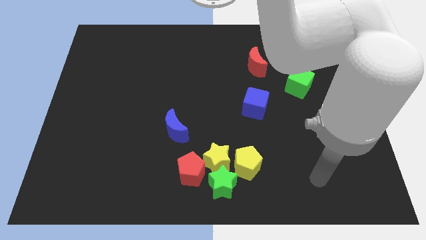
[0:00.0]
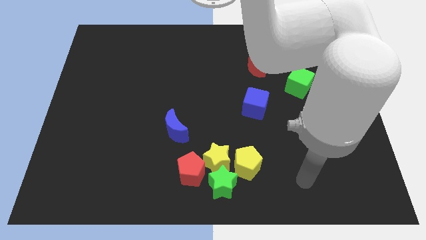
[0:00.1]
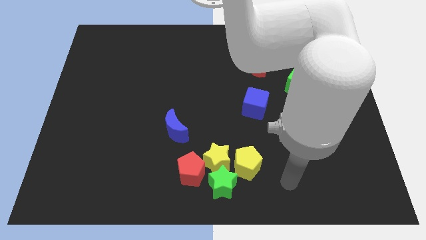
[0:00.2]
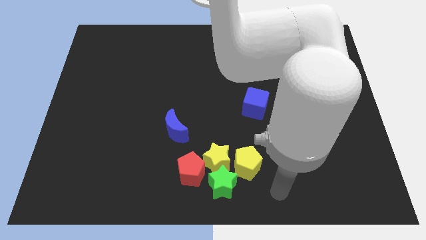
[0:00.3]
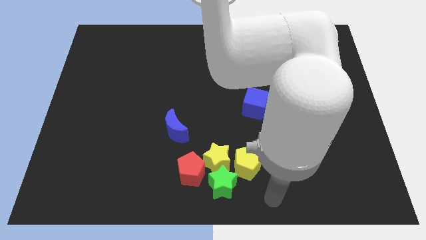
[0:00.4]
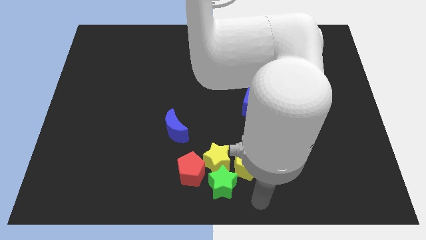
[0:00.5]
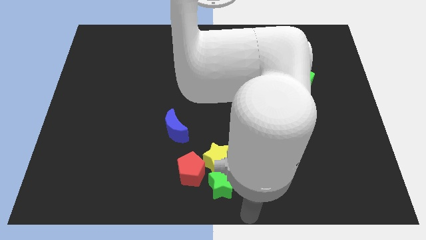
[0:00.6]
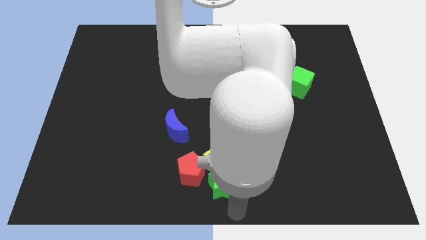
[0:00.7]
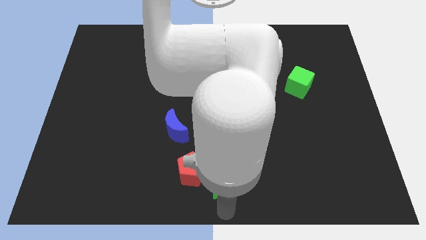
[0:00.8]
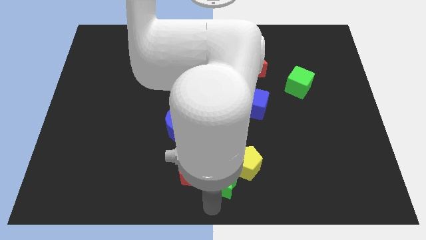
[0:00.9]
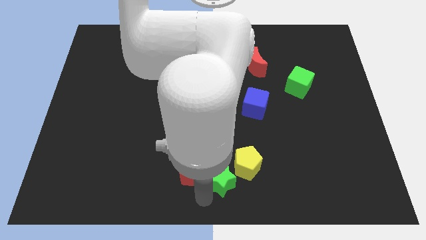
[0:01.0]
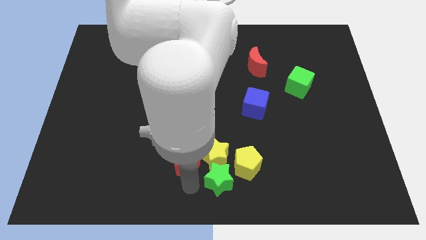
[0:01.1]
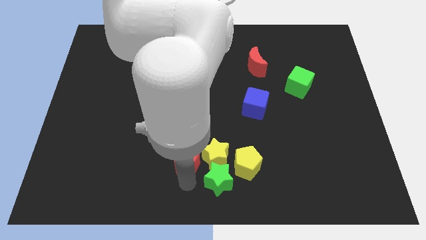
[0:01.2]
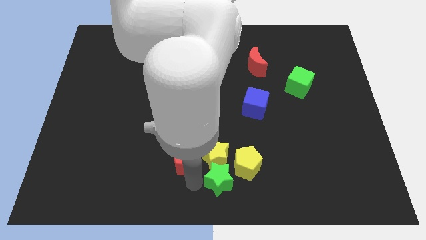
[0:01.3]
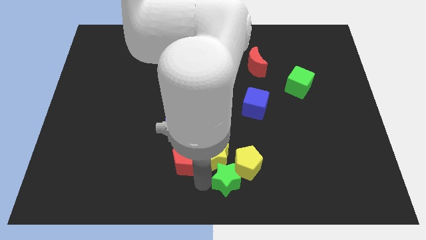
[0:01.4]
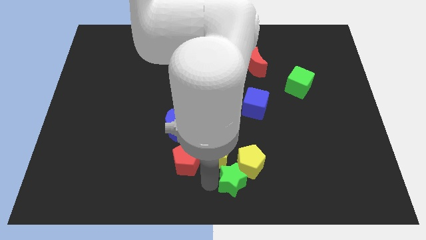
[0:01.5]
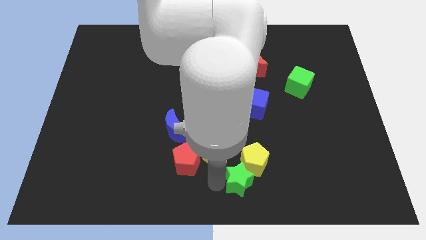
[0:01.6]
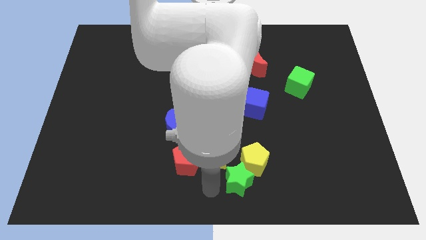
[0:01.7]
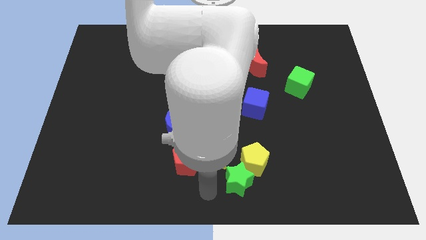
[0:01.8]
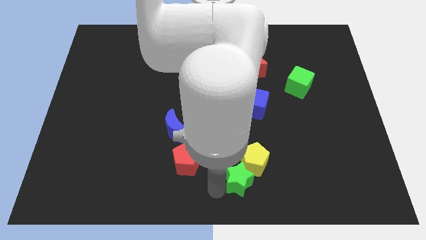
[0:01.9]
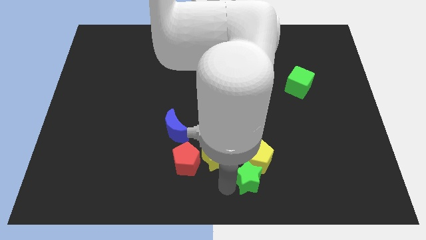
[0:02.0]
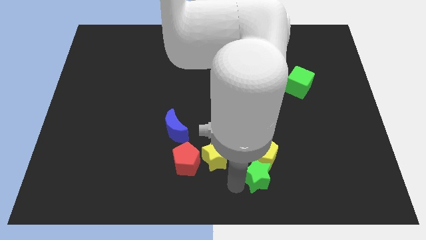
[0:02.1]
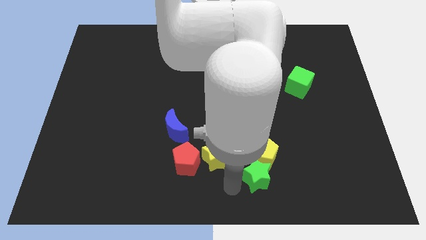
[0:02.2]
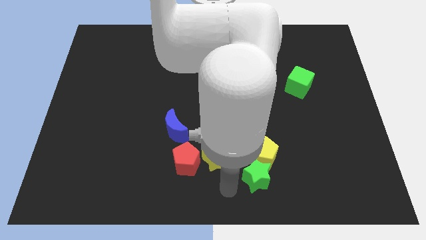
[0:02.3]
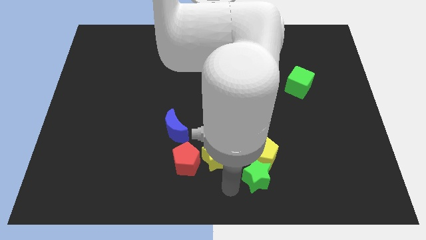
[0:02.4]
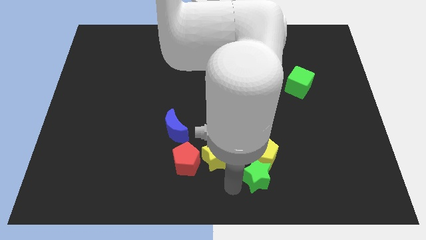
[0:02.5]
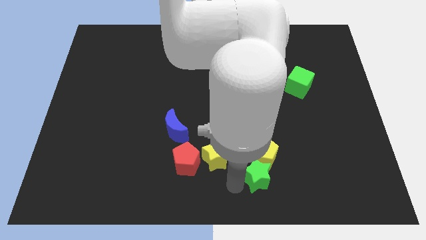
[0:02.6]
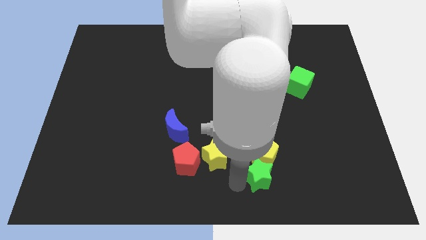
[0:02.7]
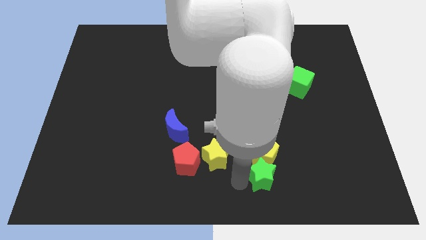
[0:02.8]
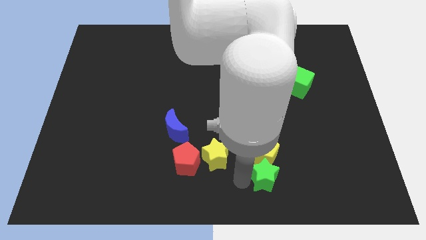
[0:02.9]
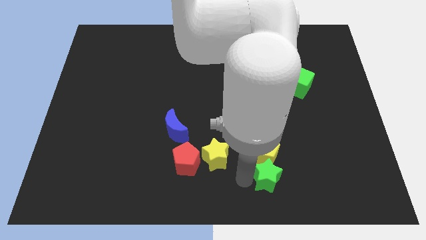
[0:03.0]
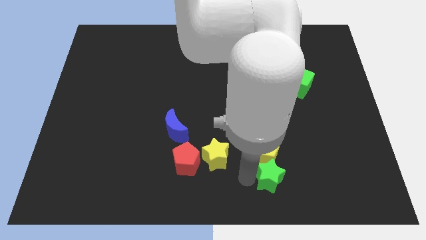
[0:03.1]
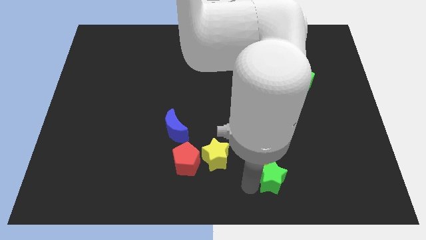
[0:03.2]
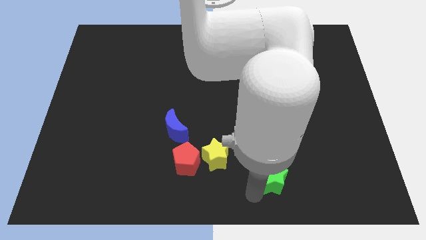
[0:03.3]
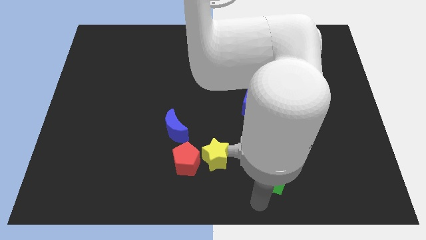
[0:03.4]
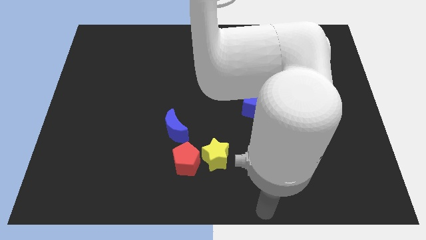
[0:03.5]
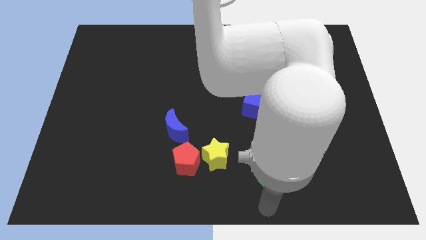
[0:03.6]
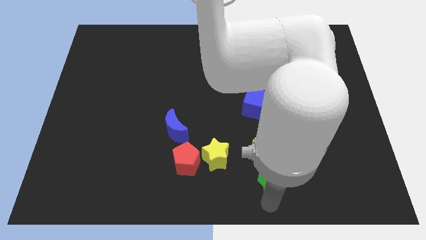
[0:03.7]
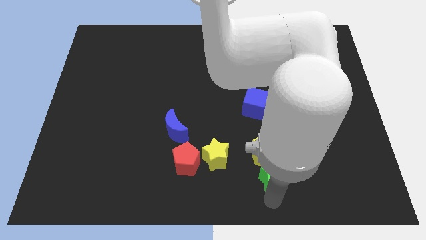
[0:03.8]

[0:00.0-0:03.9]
push the green star a little upwards and right diagonally

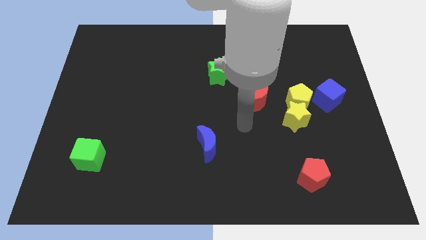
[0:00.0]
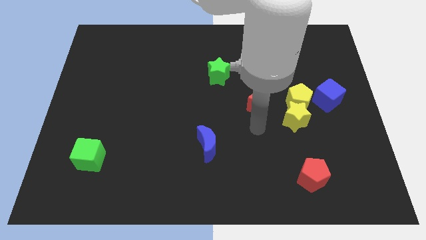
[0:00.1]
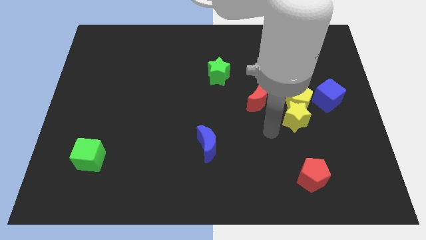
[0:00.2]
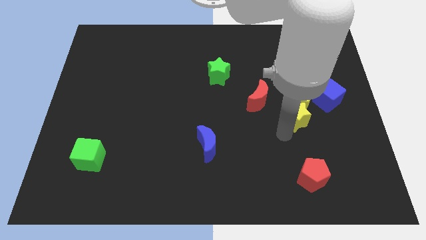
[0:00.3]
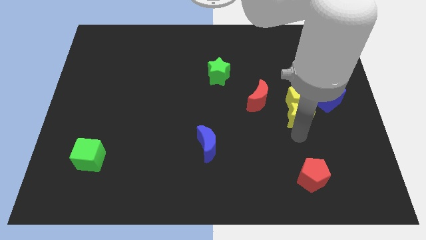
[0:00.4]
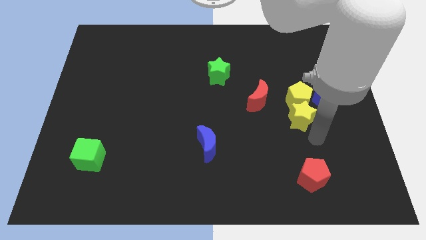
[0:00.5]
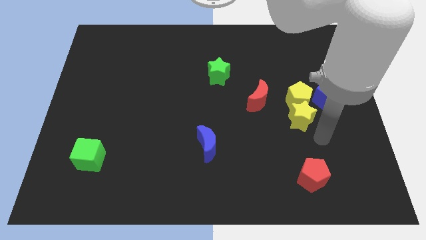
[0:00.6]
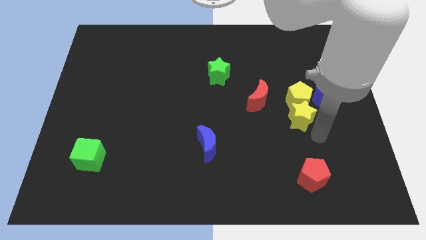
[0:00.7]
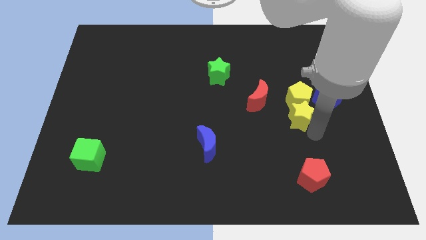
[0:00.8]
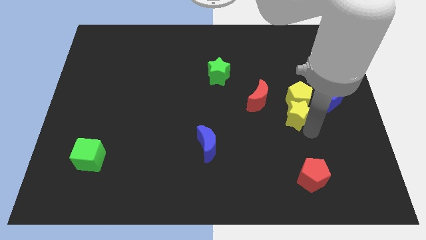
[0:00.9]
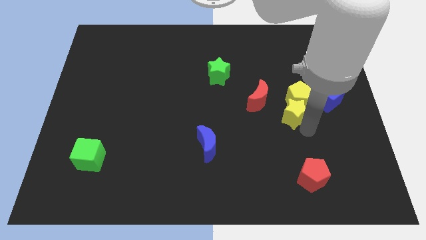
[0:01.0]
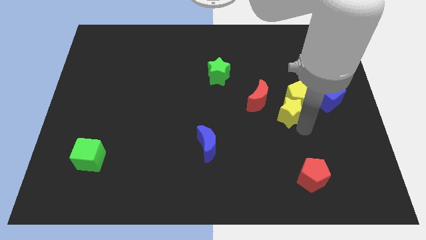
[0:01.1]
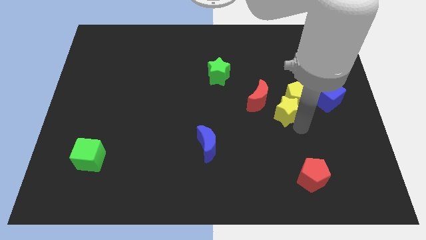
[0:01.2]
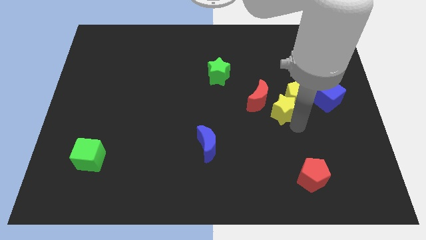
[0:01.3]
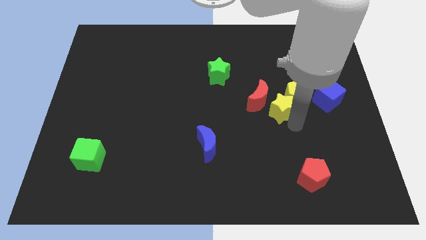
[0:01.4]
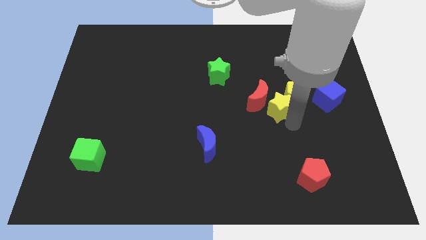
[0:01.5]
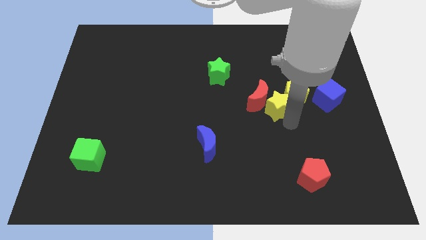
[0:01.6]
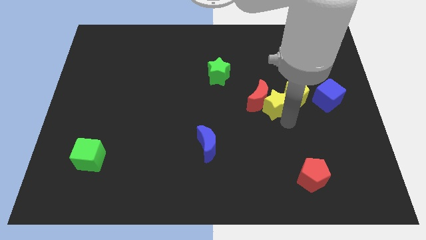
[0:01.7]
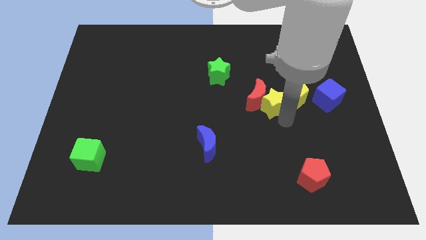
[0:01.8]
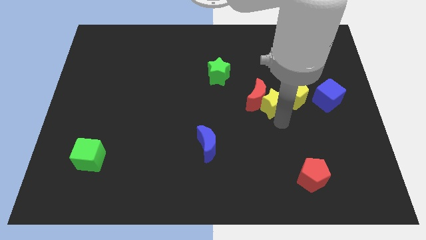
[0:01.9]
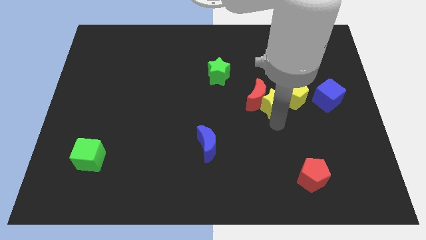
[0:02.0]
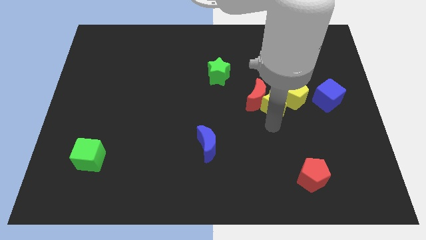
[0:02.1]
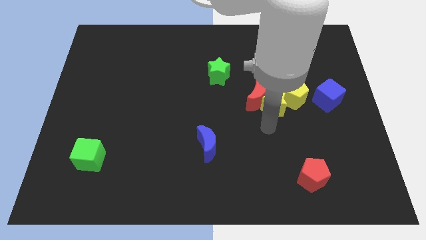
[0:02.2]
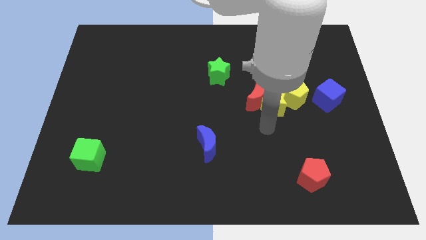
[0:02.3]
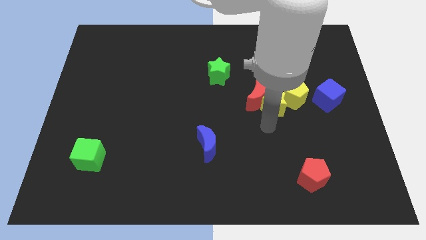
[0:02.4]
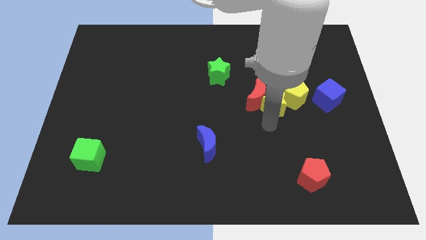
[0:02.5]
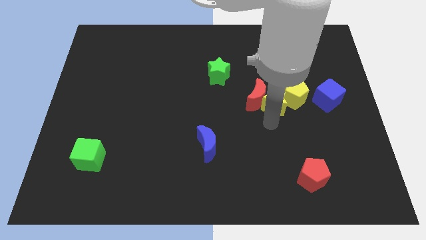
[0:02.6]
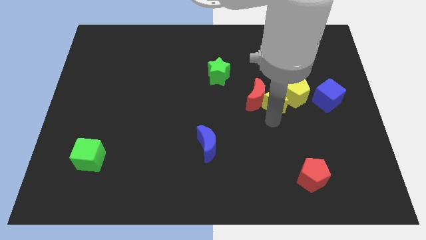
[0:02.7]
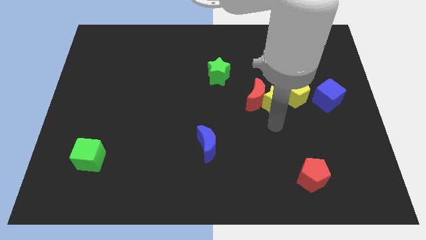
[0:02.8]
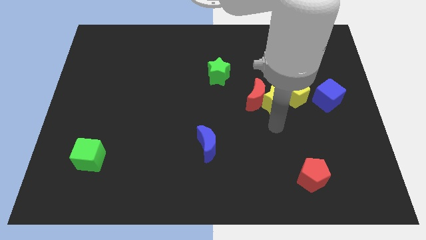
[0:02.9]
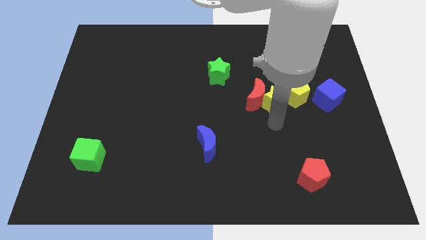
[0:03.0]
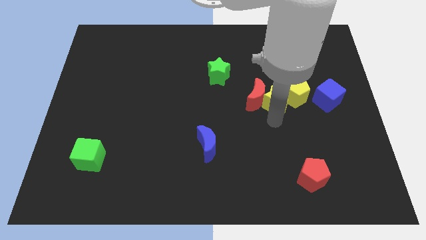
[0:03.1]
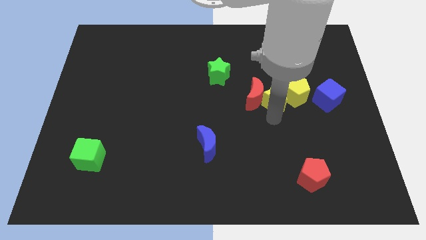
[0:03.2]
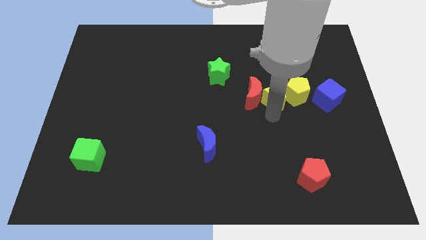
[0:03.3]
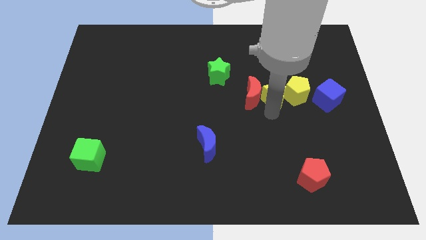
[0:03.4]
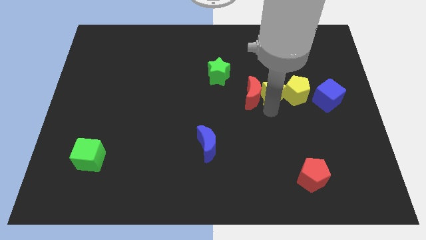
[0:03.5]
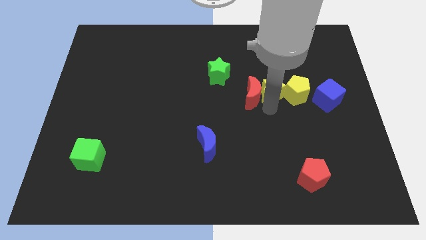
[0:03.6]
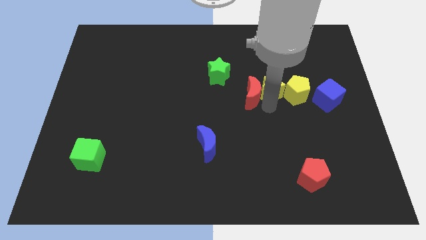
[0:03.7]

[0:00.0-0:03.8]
slide the yellow star somewhat up

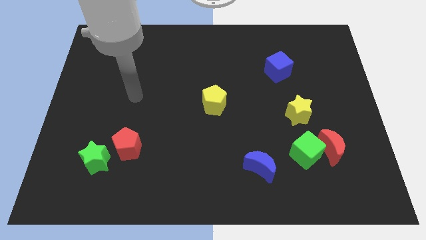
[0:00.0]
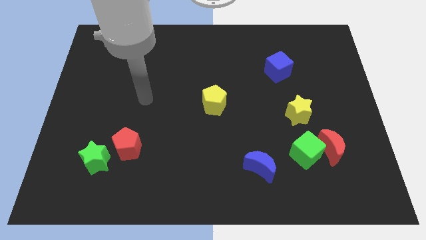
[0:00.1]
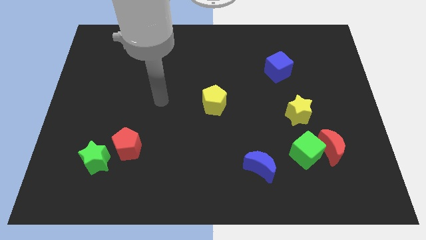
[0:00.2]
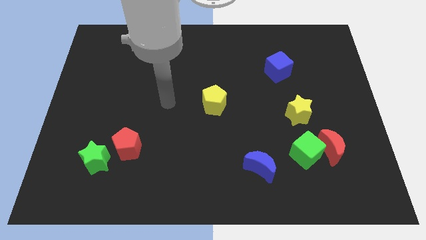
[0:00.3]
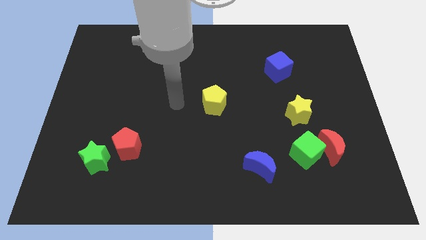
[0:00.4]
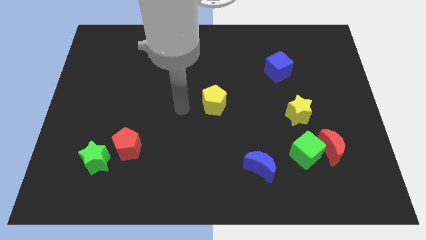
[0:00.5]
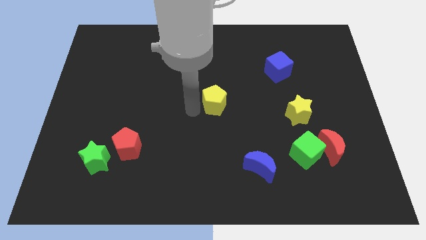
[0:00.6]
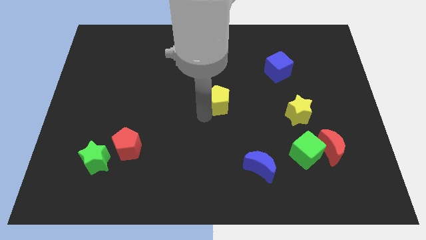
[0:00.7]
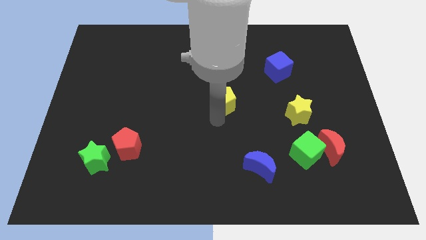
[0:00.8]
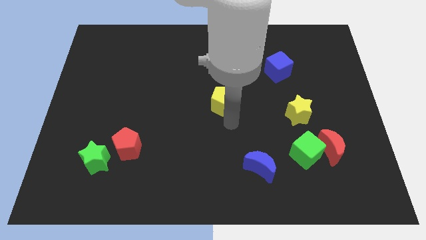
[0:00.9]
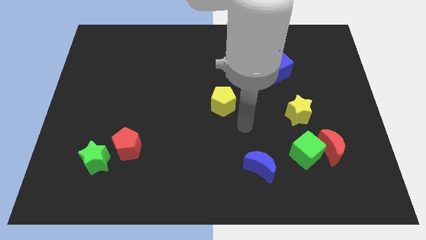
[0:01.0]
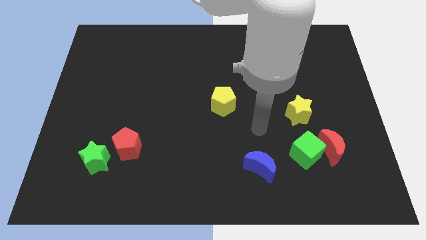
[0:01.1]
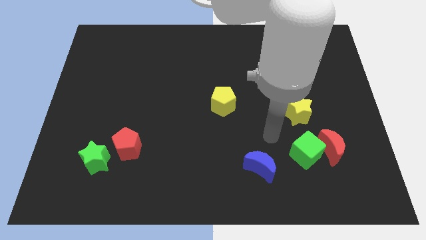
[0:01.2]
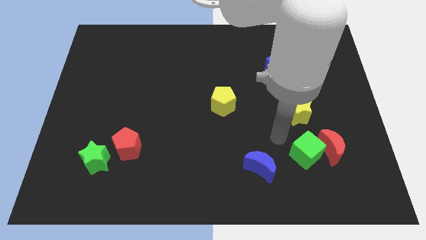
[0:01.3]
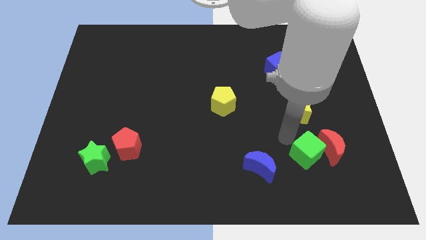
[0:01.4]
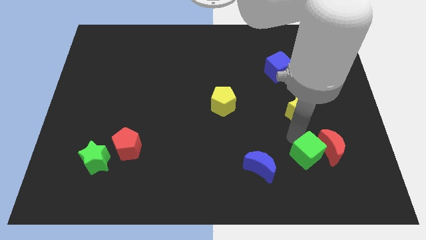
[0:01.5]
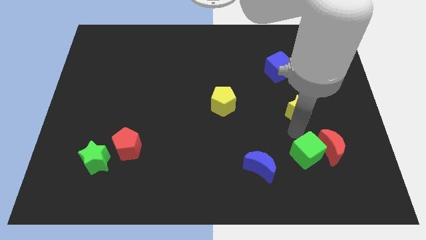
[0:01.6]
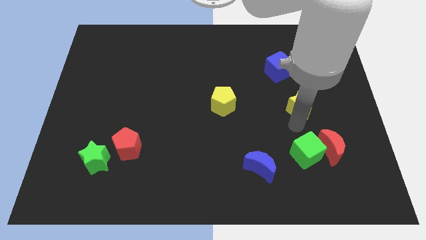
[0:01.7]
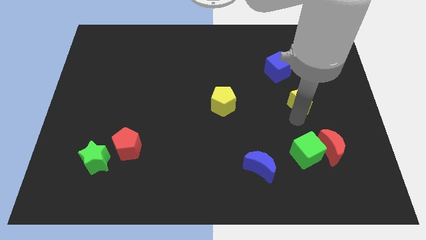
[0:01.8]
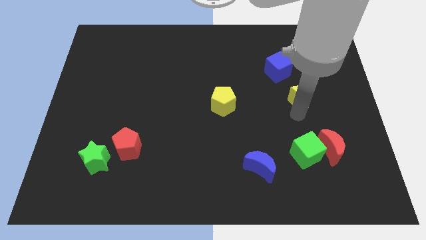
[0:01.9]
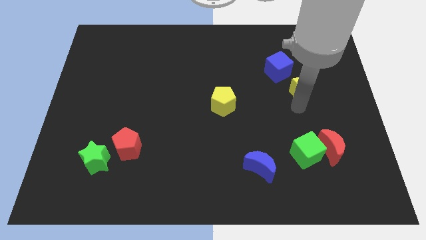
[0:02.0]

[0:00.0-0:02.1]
push the yellow star up somewhat
